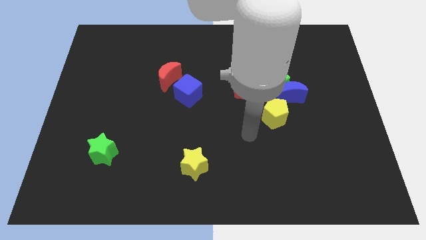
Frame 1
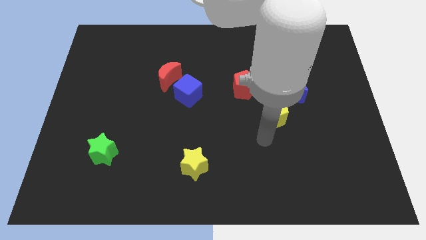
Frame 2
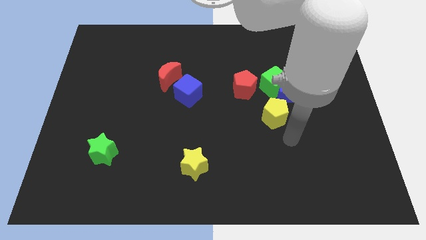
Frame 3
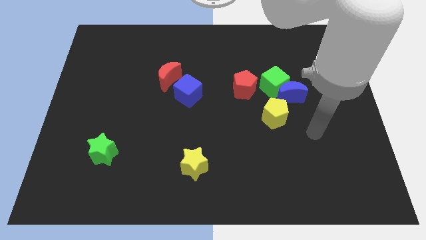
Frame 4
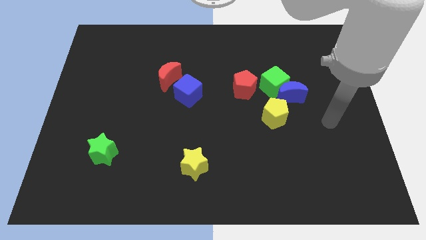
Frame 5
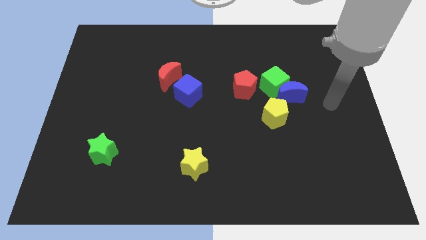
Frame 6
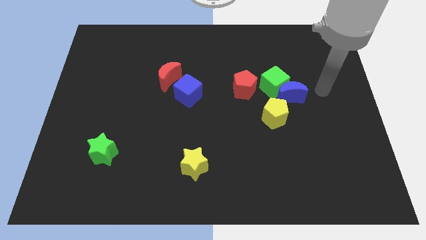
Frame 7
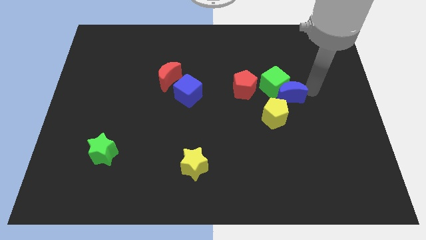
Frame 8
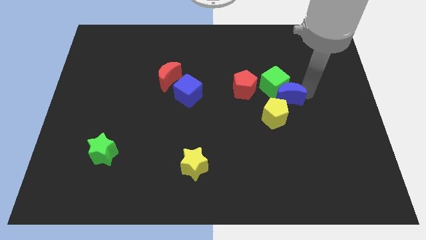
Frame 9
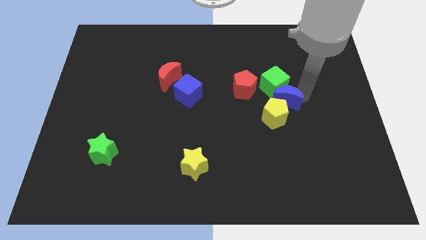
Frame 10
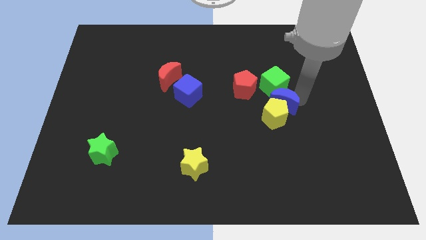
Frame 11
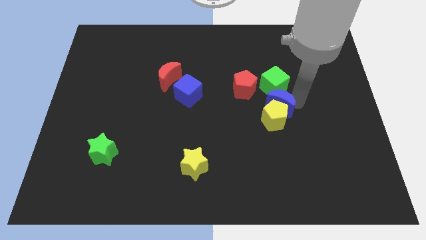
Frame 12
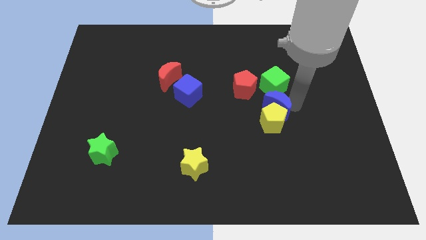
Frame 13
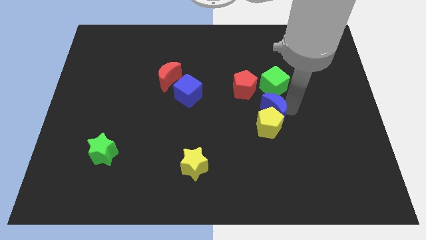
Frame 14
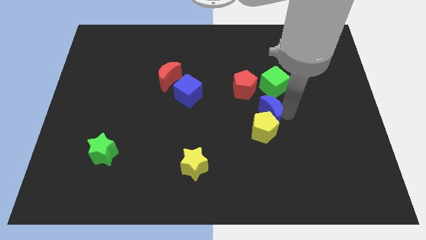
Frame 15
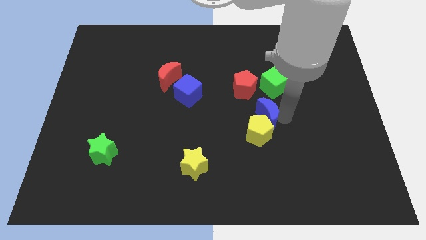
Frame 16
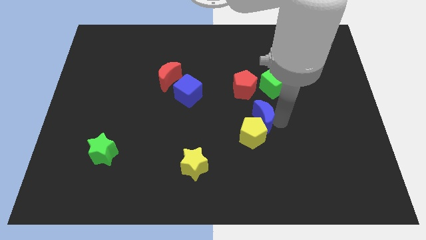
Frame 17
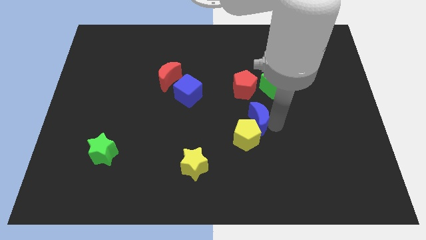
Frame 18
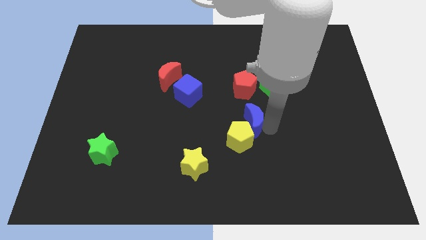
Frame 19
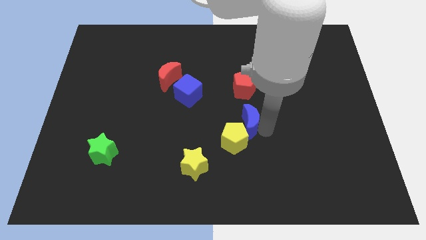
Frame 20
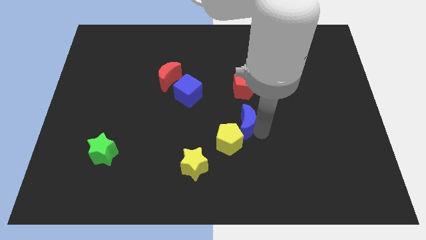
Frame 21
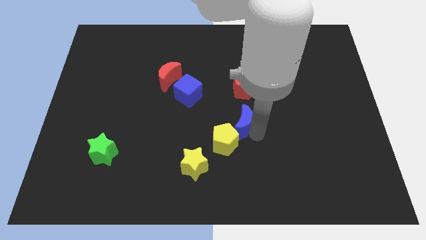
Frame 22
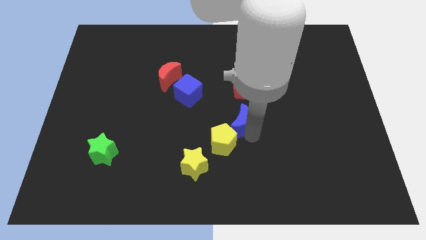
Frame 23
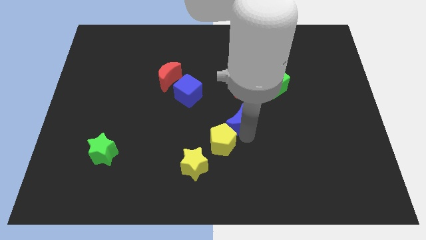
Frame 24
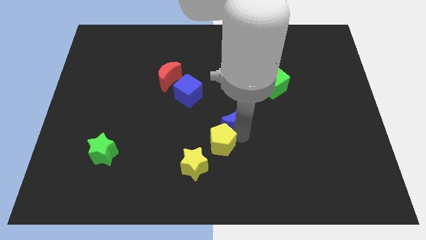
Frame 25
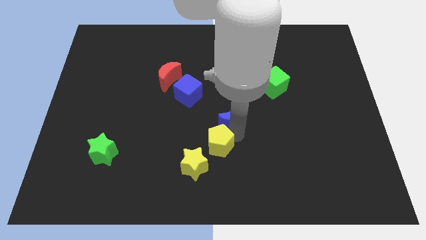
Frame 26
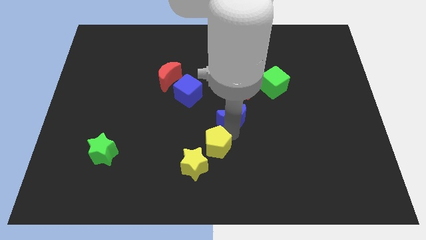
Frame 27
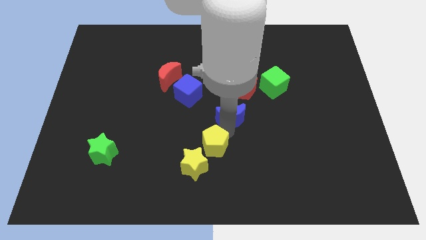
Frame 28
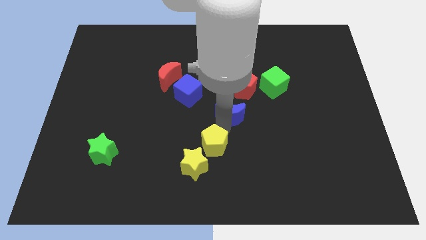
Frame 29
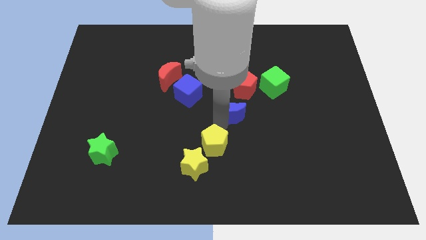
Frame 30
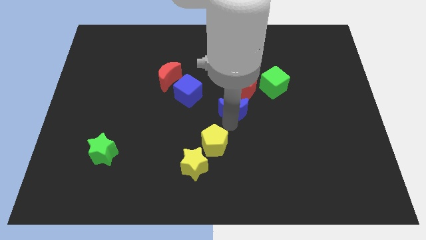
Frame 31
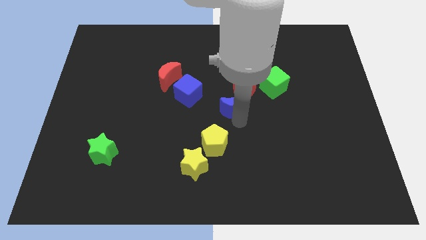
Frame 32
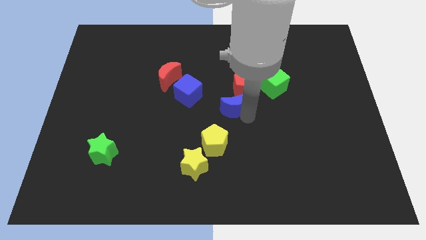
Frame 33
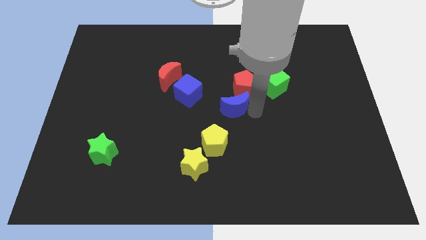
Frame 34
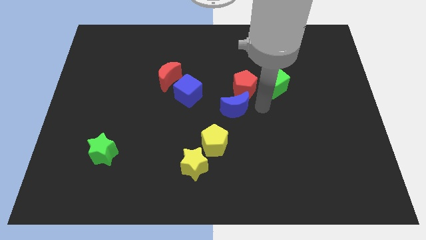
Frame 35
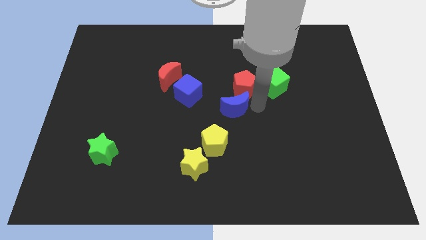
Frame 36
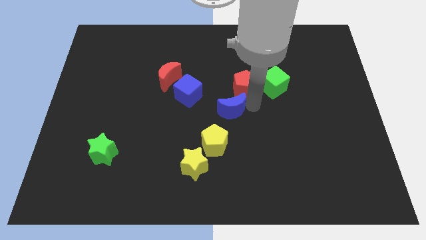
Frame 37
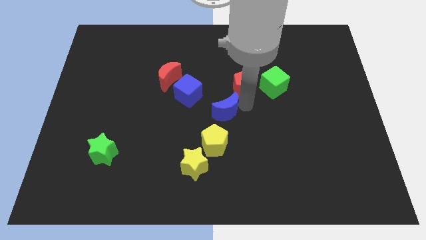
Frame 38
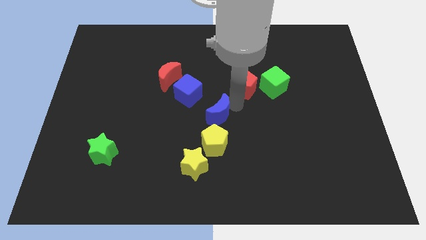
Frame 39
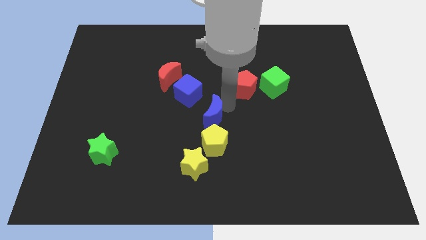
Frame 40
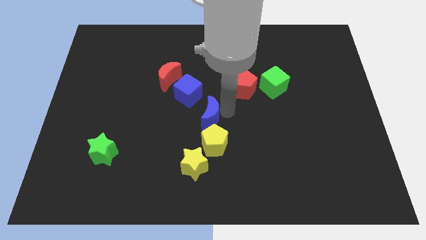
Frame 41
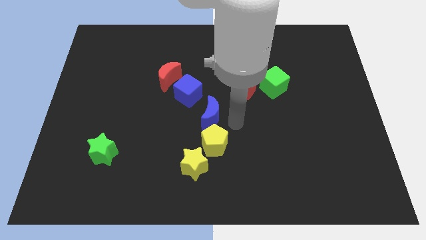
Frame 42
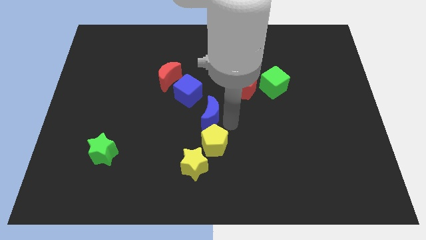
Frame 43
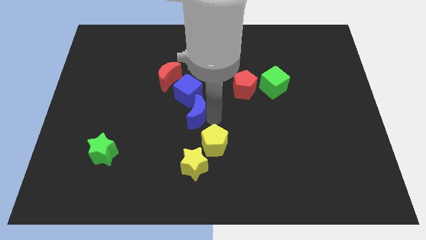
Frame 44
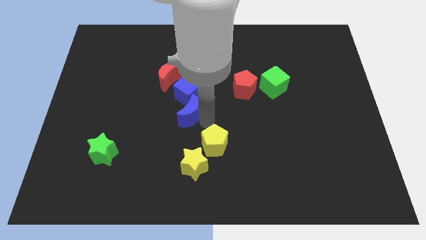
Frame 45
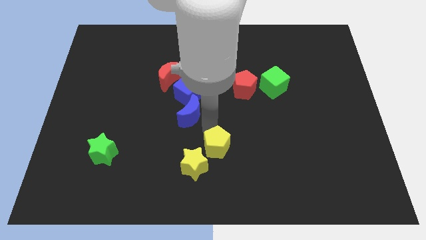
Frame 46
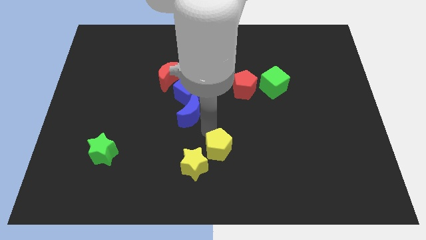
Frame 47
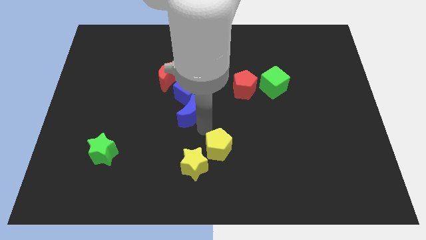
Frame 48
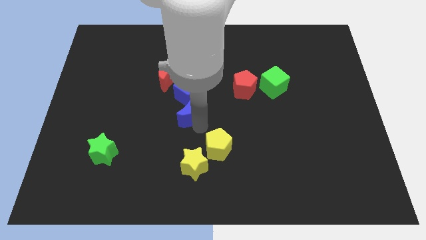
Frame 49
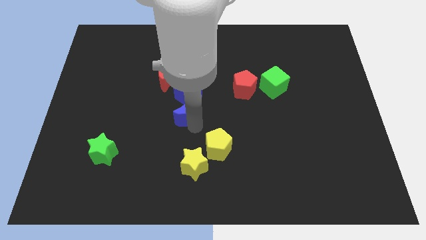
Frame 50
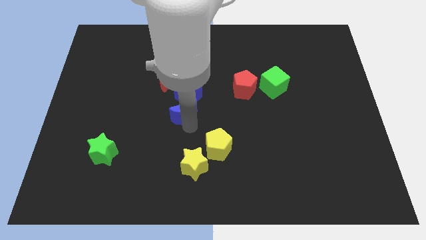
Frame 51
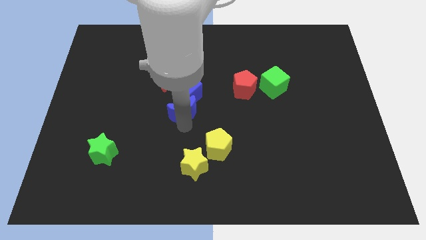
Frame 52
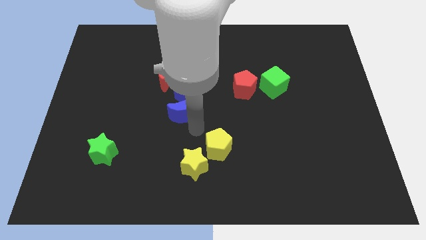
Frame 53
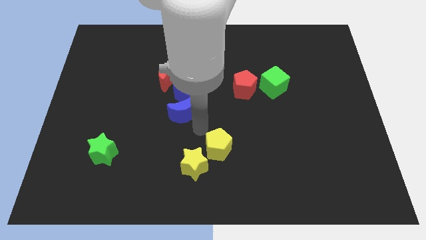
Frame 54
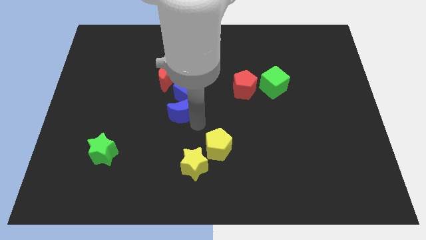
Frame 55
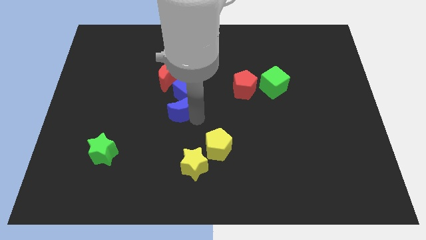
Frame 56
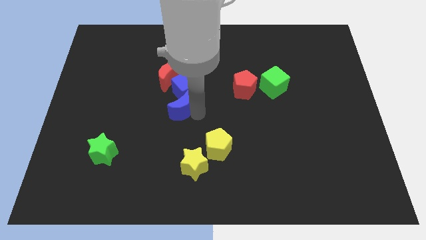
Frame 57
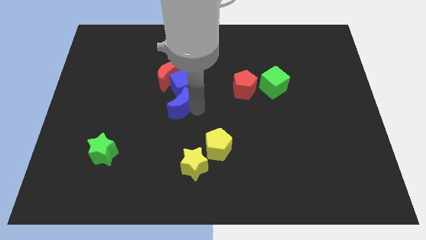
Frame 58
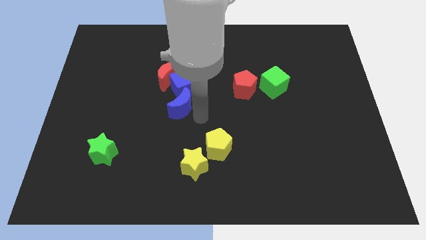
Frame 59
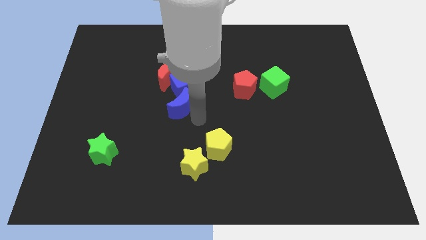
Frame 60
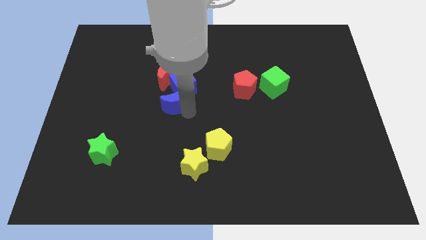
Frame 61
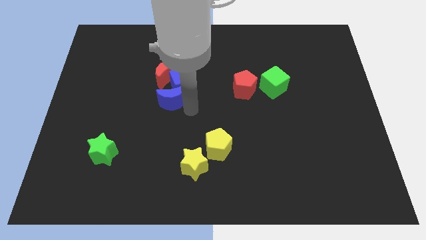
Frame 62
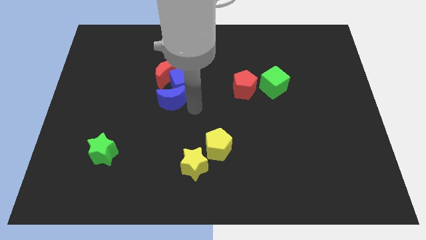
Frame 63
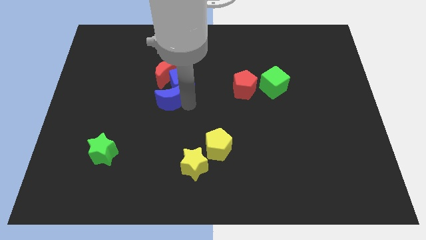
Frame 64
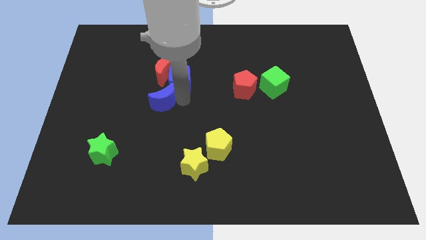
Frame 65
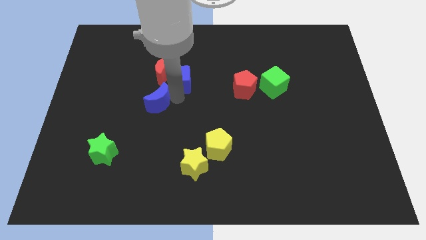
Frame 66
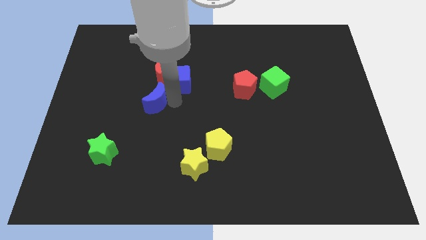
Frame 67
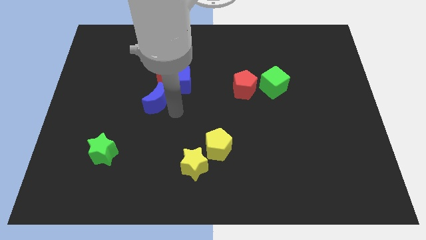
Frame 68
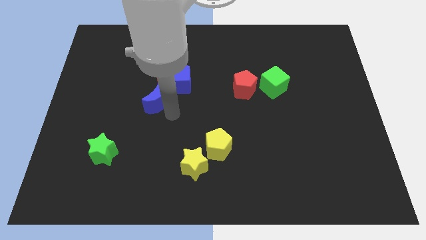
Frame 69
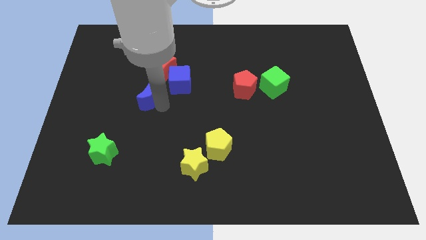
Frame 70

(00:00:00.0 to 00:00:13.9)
move the blue moon diagonally down and to the left of the red moon
